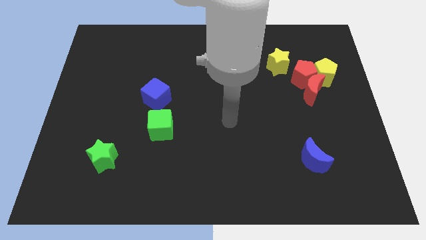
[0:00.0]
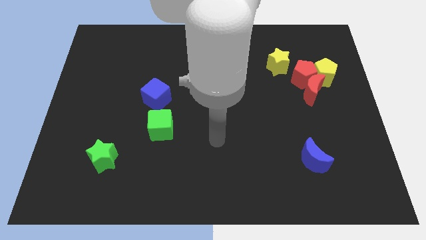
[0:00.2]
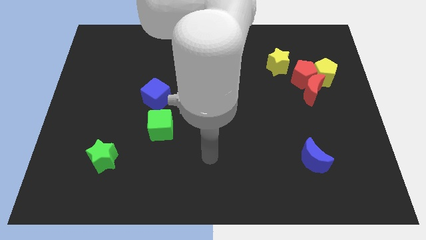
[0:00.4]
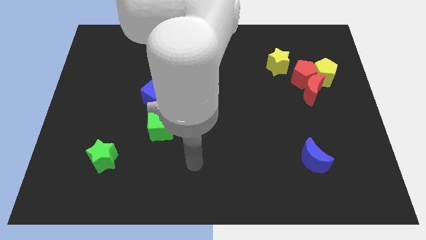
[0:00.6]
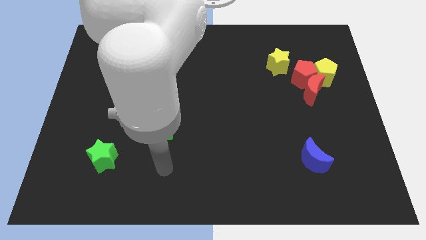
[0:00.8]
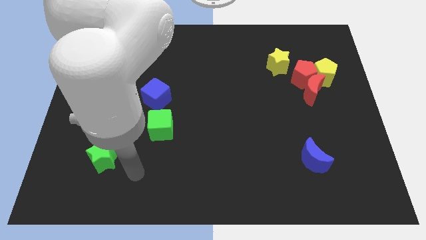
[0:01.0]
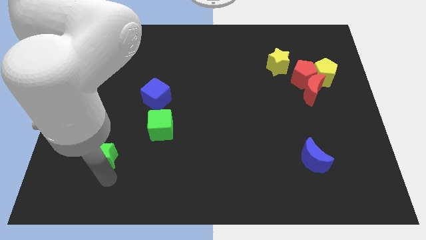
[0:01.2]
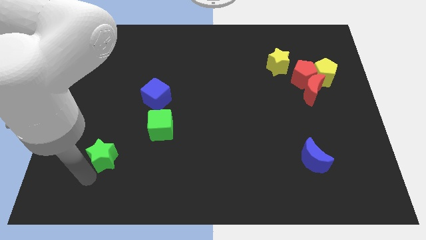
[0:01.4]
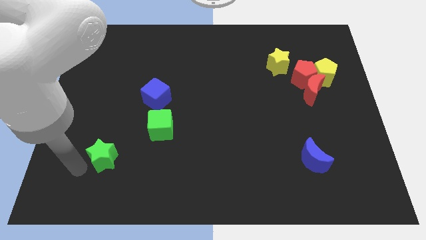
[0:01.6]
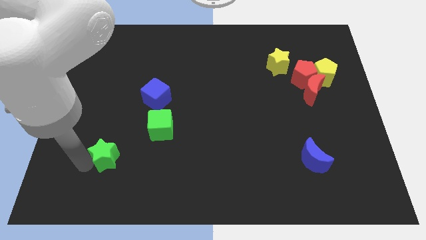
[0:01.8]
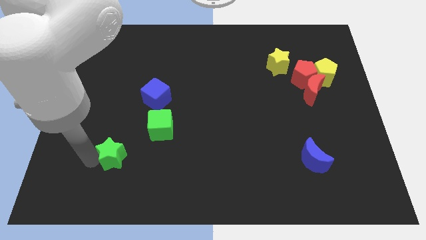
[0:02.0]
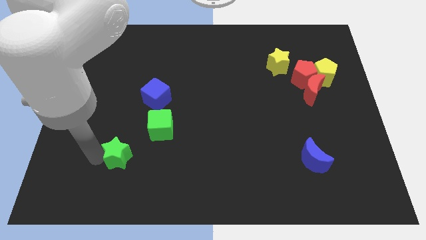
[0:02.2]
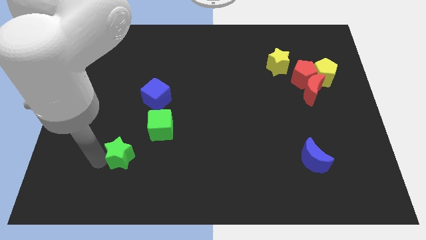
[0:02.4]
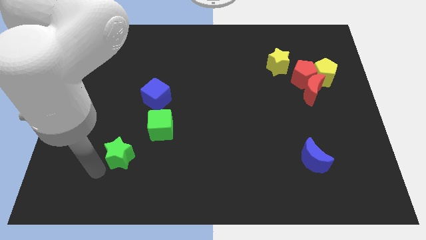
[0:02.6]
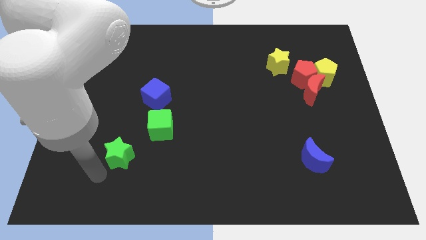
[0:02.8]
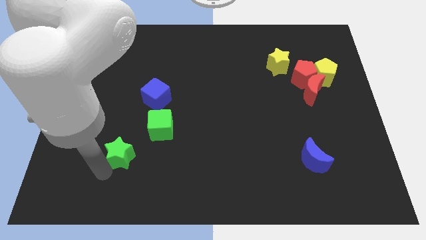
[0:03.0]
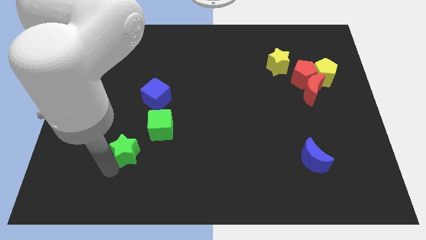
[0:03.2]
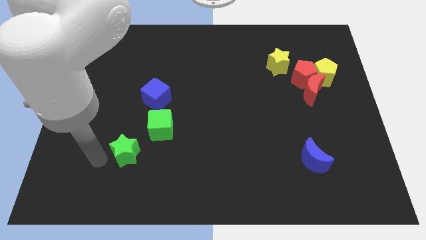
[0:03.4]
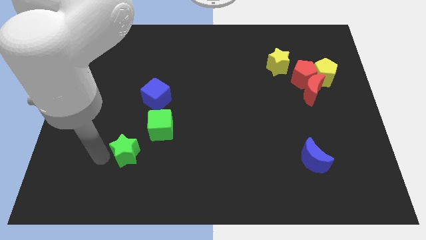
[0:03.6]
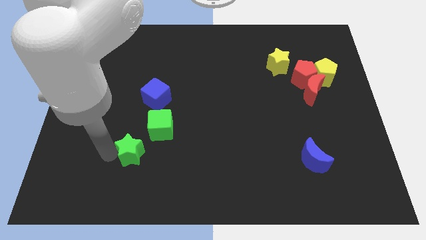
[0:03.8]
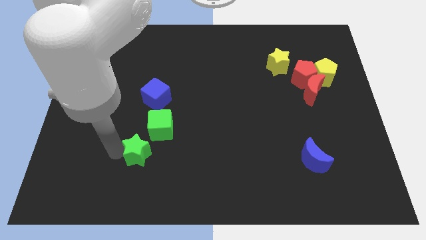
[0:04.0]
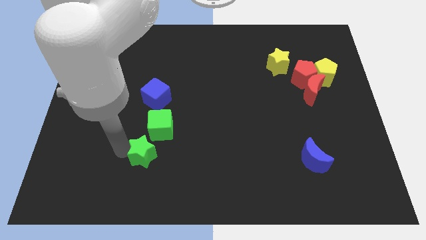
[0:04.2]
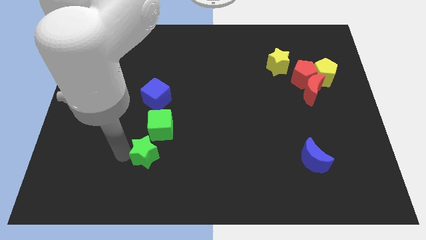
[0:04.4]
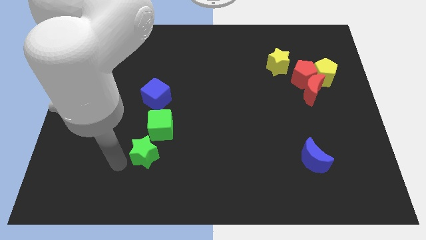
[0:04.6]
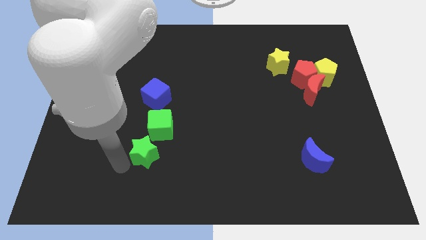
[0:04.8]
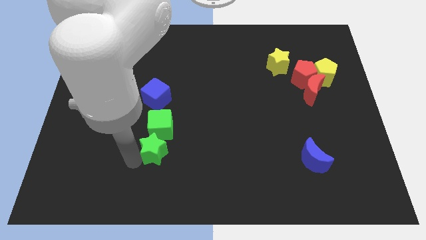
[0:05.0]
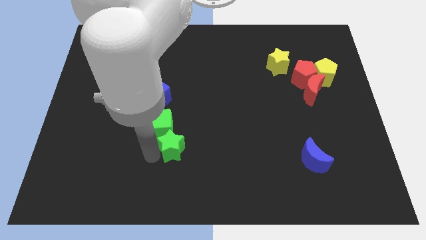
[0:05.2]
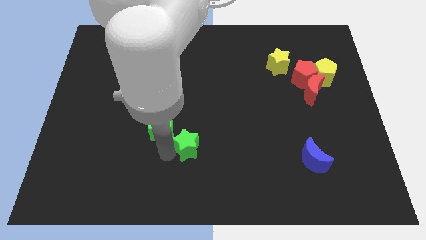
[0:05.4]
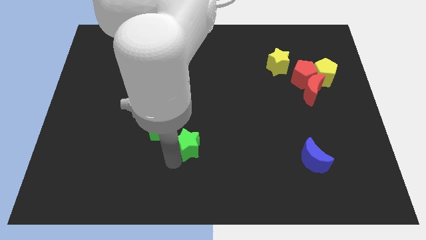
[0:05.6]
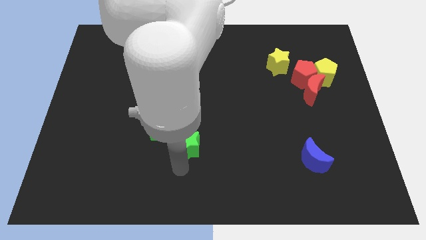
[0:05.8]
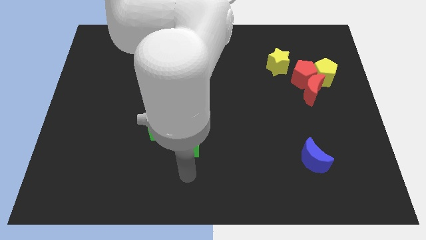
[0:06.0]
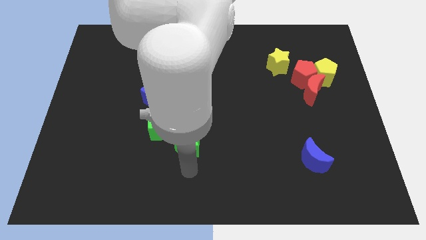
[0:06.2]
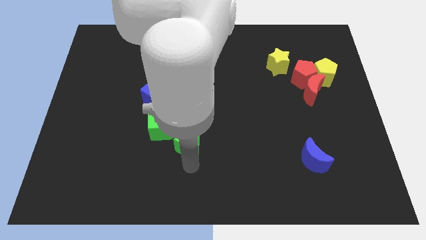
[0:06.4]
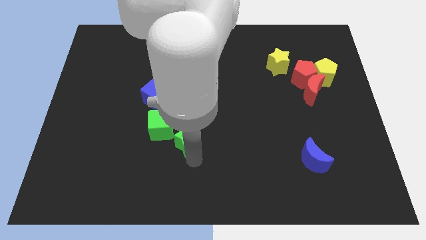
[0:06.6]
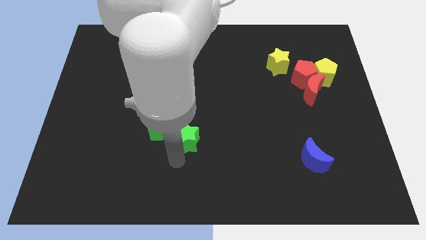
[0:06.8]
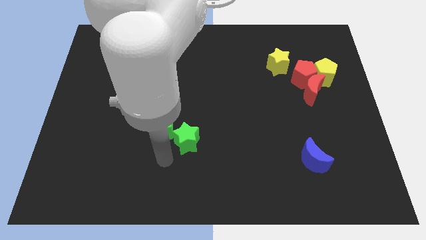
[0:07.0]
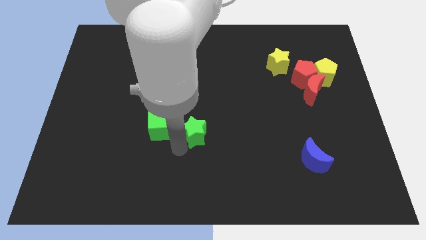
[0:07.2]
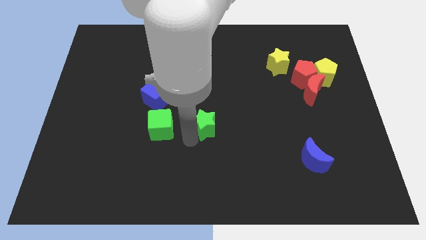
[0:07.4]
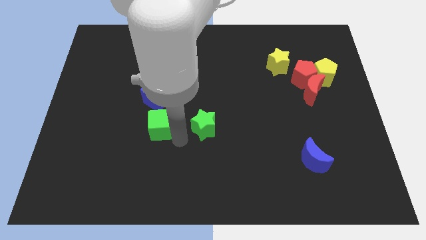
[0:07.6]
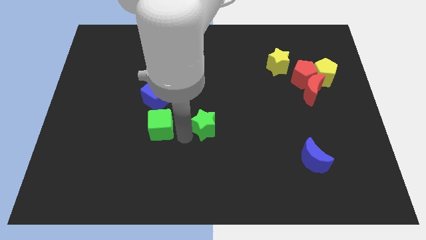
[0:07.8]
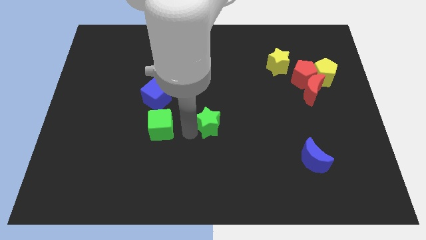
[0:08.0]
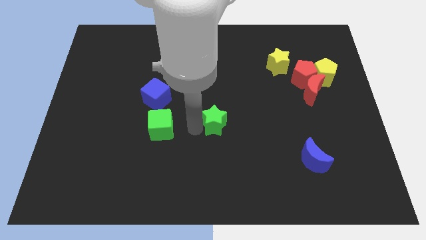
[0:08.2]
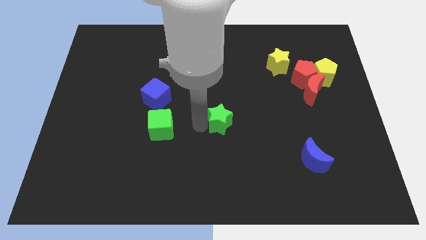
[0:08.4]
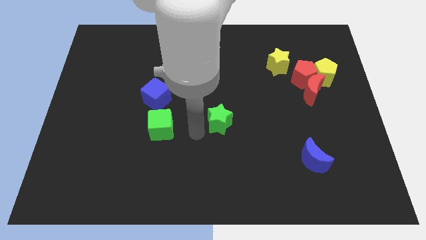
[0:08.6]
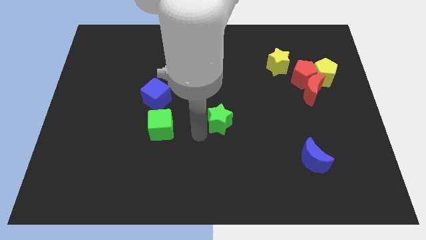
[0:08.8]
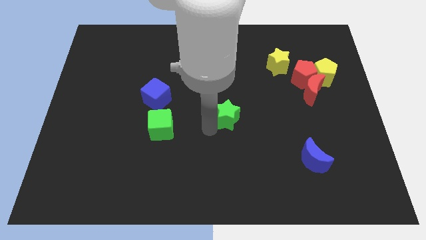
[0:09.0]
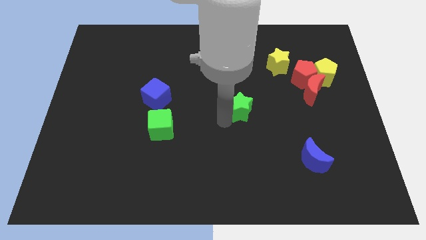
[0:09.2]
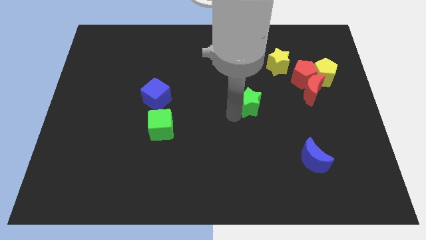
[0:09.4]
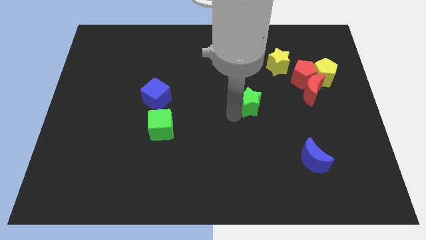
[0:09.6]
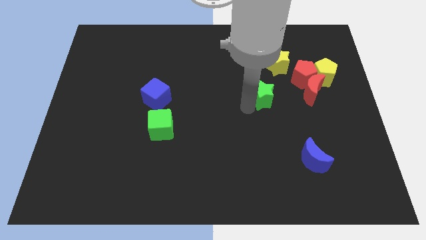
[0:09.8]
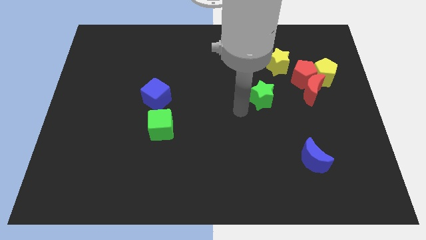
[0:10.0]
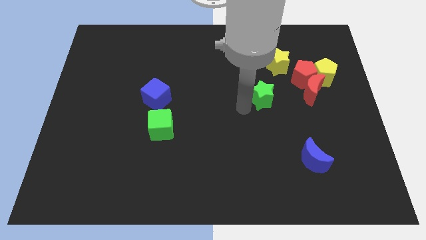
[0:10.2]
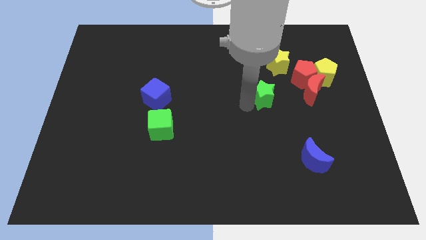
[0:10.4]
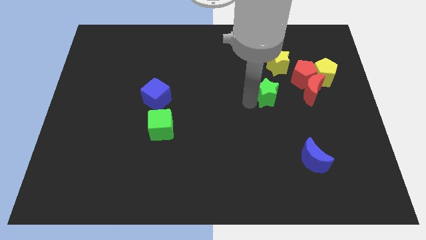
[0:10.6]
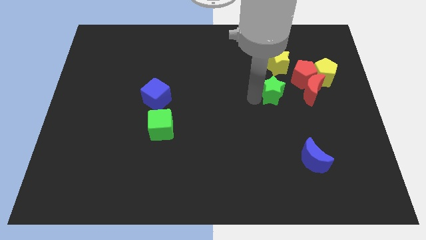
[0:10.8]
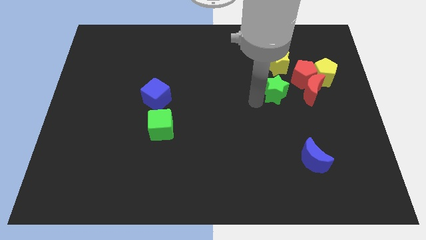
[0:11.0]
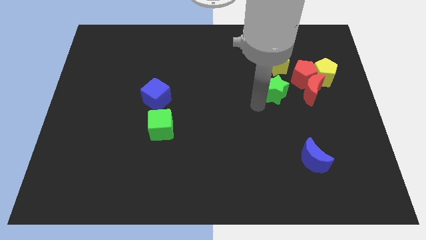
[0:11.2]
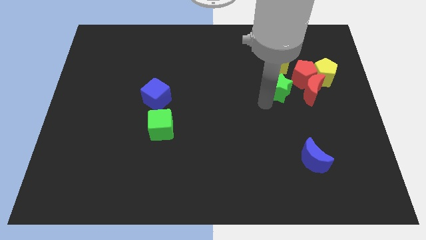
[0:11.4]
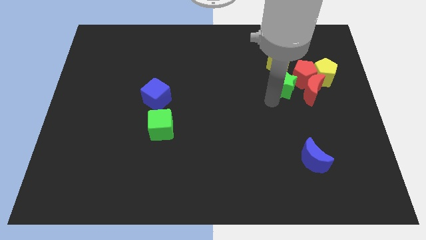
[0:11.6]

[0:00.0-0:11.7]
move the green star to the red pentagon

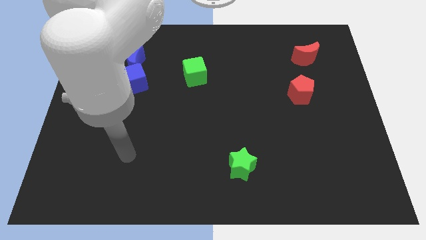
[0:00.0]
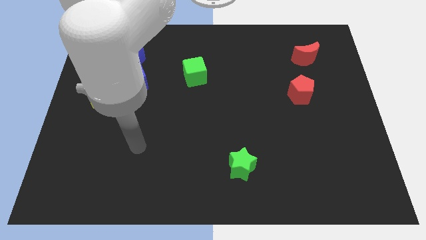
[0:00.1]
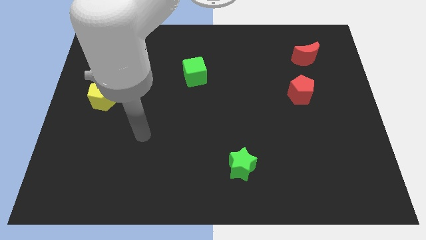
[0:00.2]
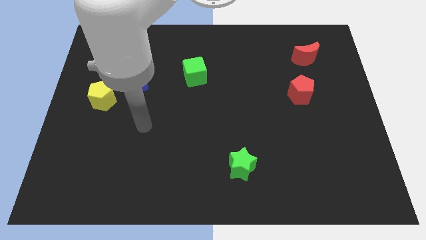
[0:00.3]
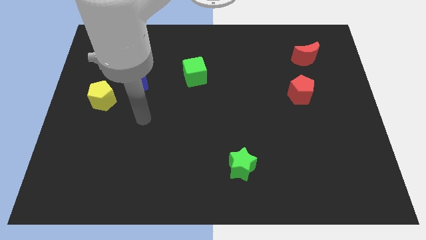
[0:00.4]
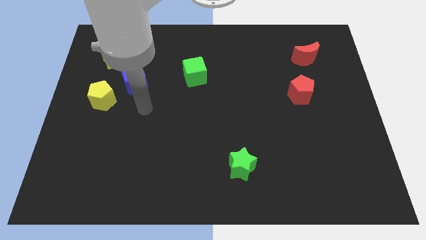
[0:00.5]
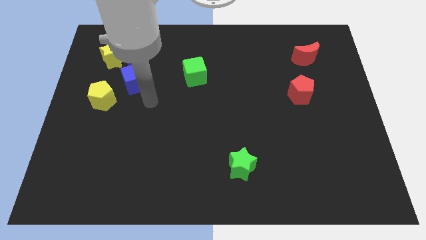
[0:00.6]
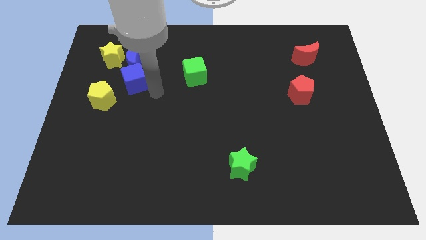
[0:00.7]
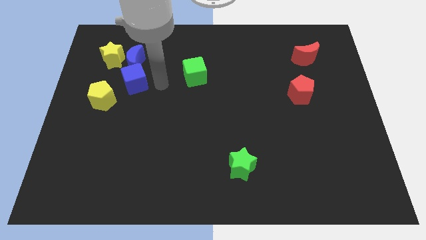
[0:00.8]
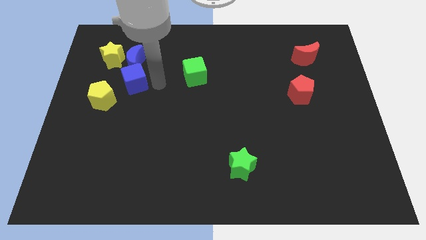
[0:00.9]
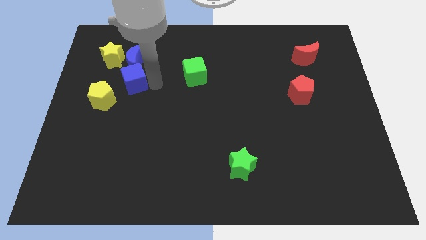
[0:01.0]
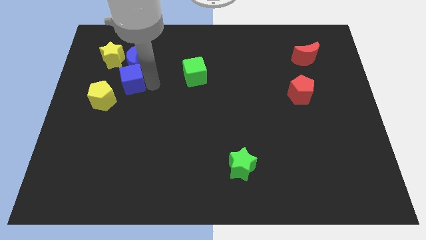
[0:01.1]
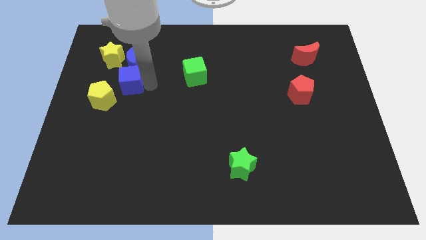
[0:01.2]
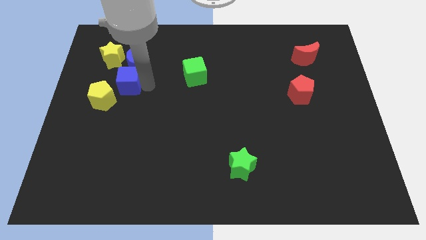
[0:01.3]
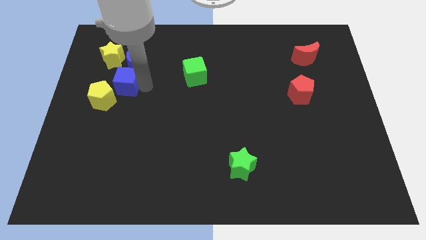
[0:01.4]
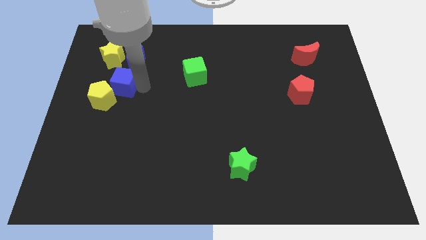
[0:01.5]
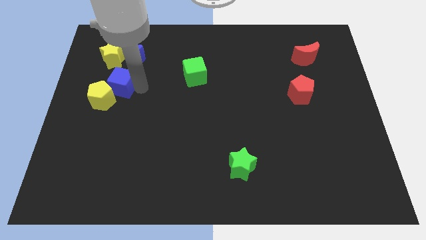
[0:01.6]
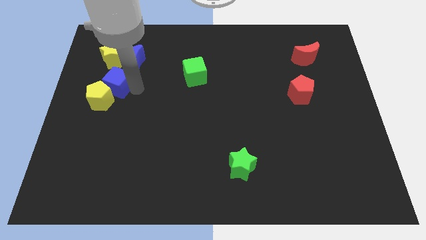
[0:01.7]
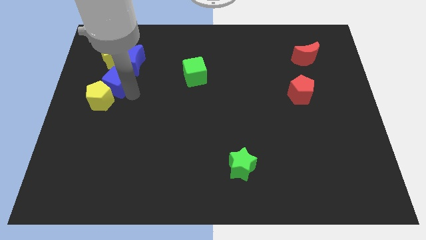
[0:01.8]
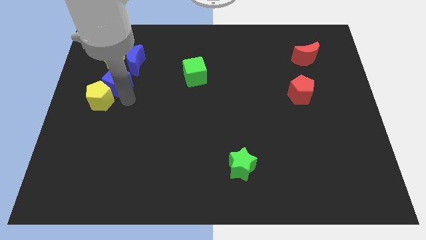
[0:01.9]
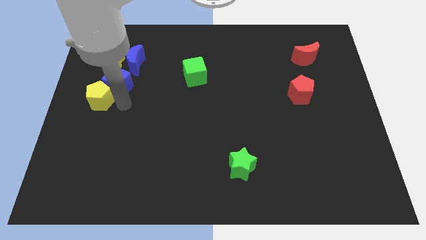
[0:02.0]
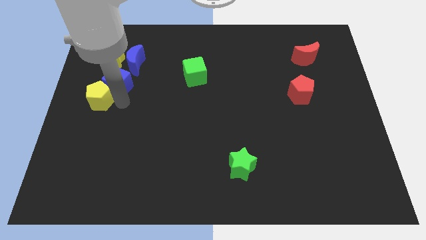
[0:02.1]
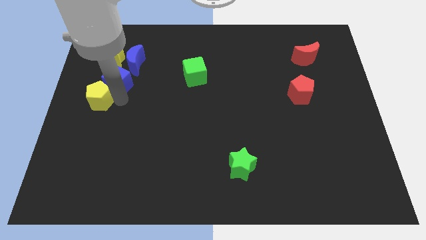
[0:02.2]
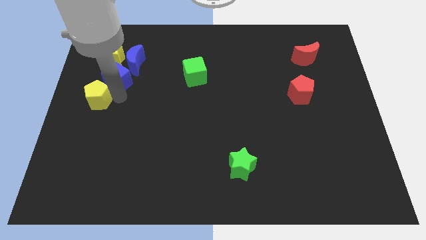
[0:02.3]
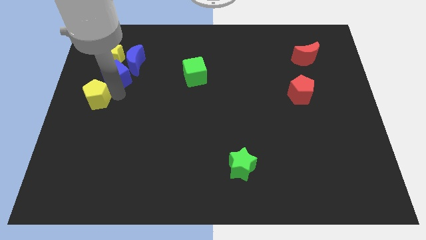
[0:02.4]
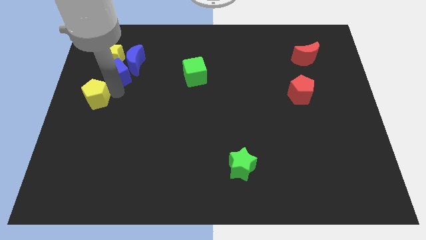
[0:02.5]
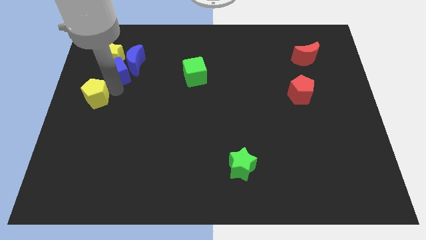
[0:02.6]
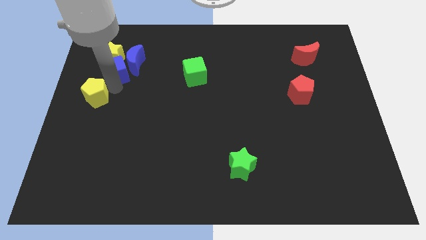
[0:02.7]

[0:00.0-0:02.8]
push the blue cube towards the yellow star
